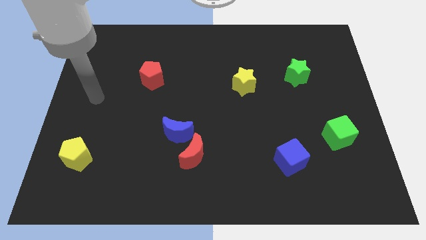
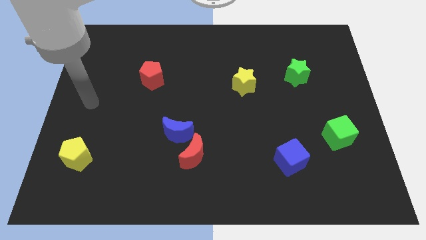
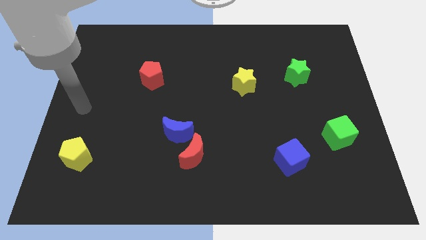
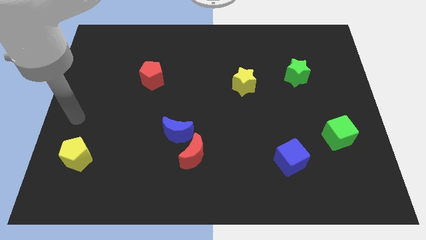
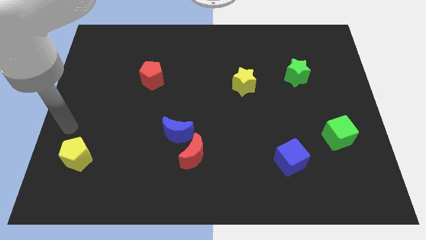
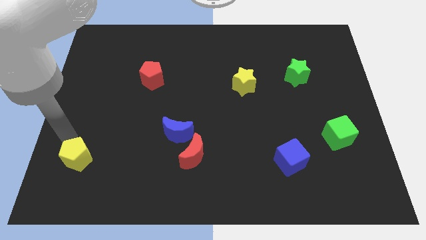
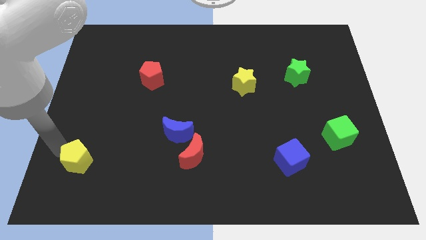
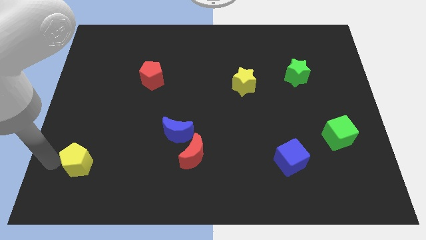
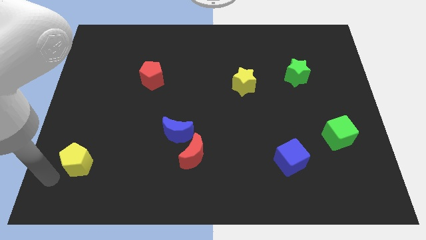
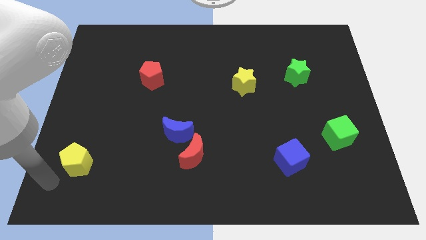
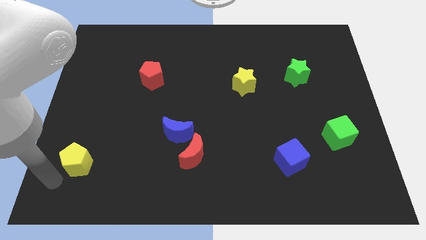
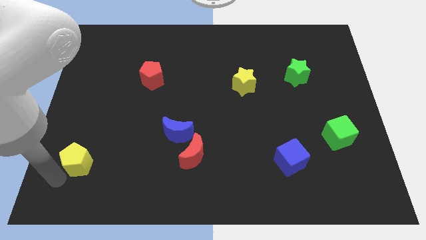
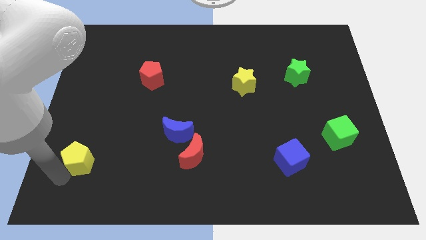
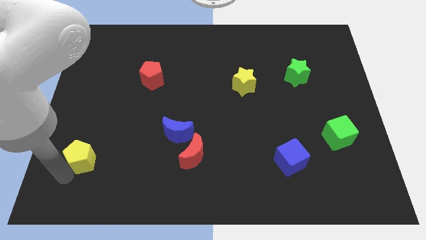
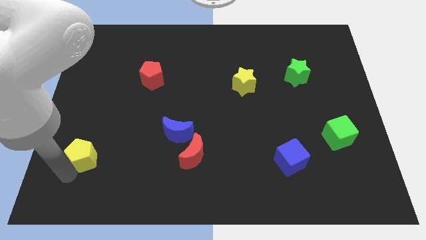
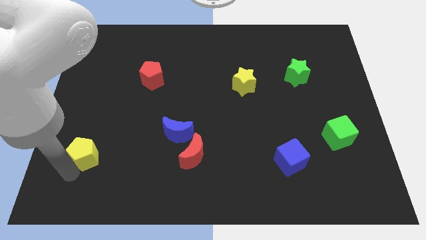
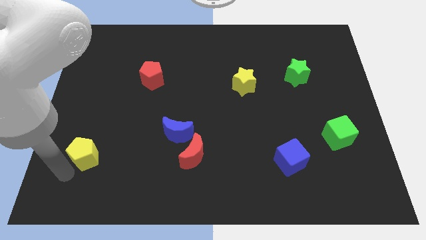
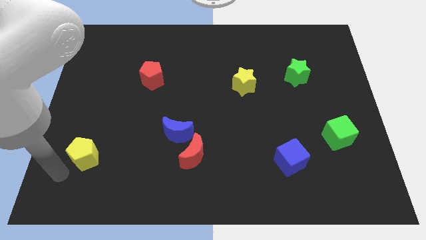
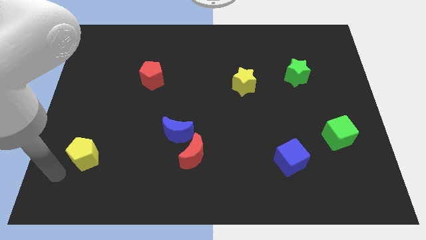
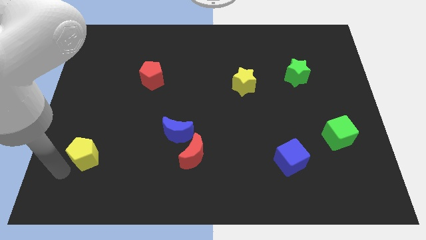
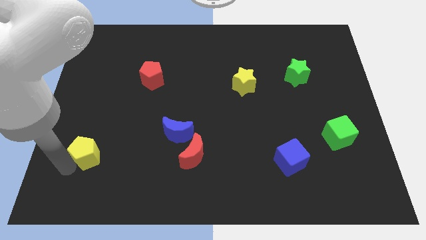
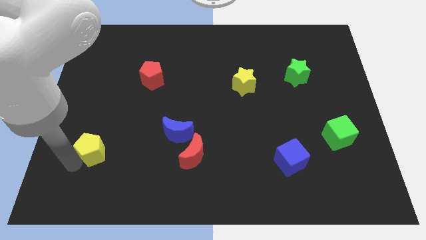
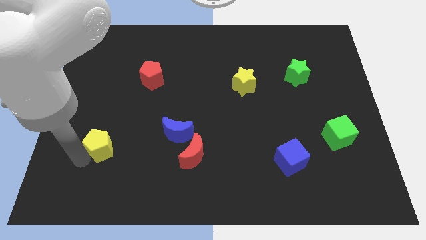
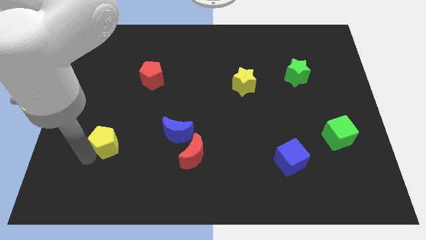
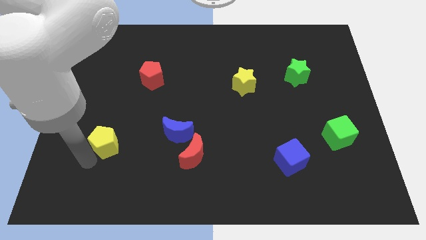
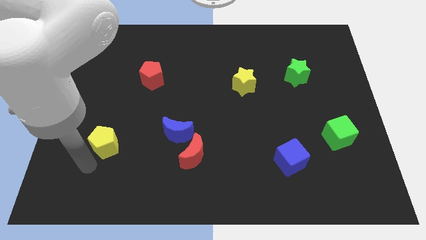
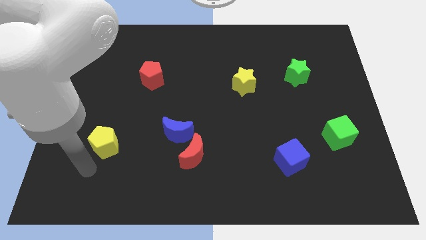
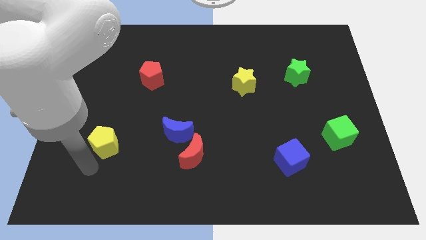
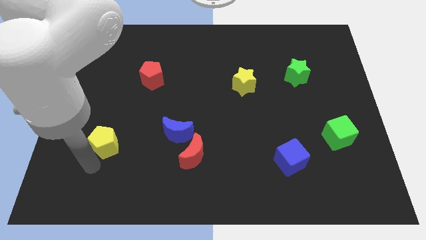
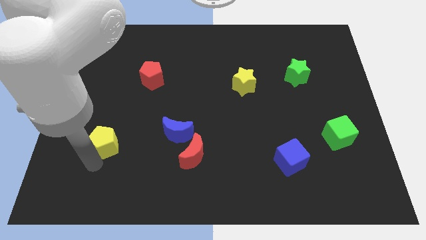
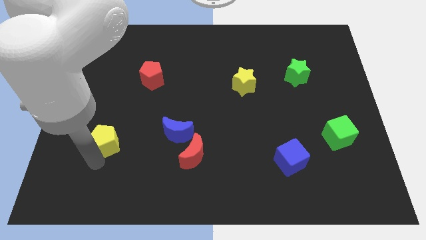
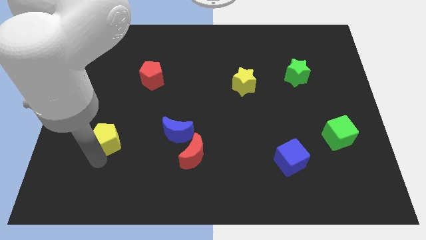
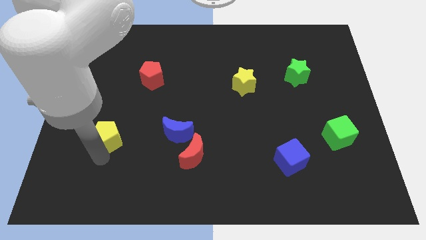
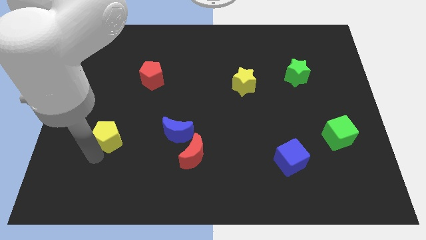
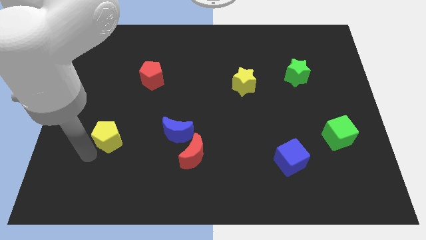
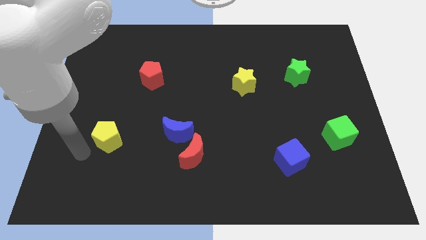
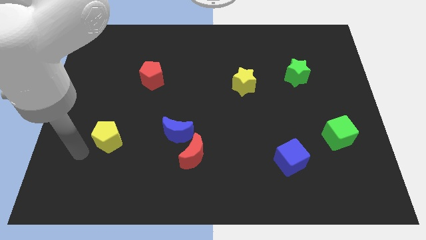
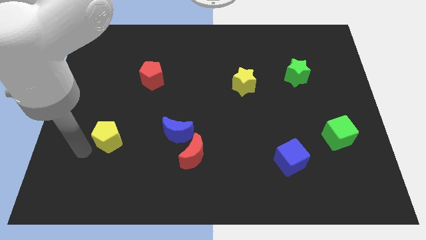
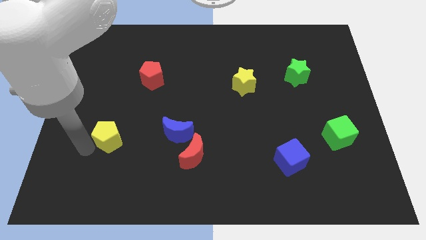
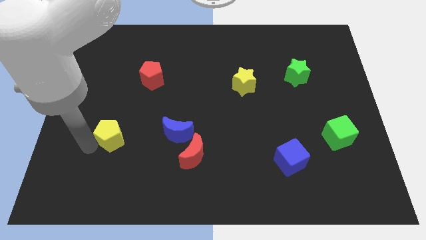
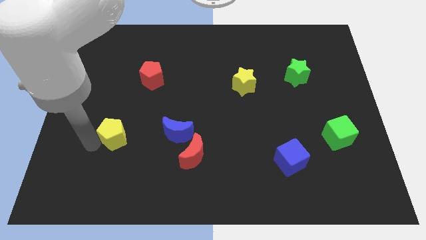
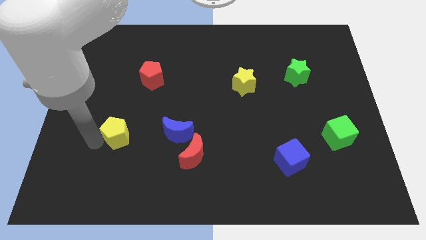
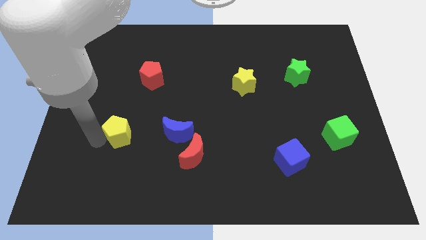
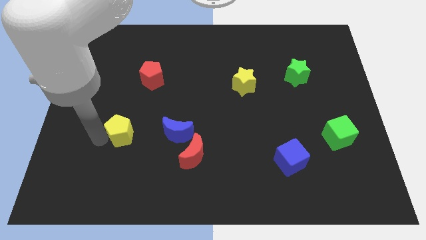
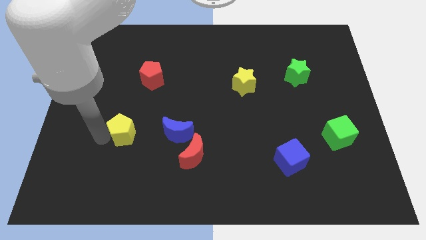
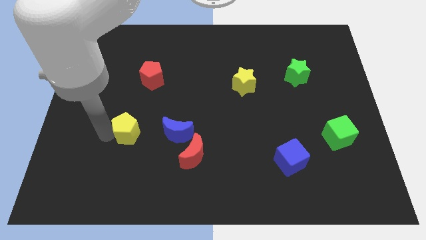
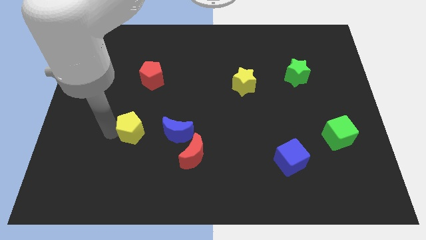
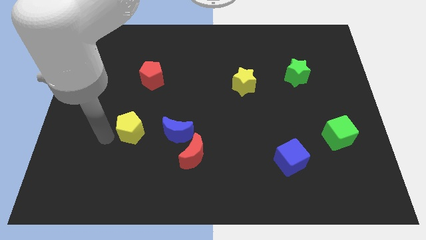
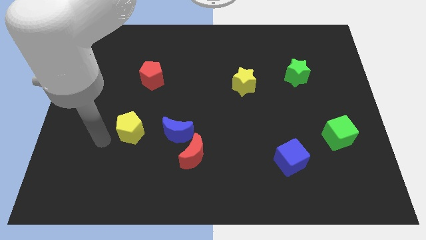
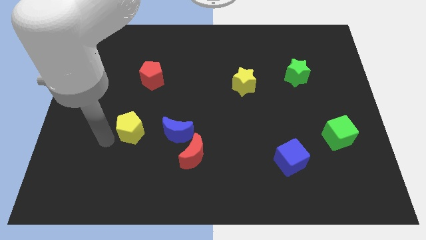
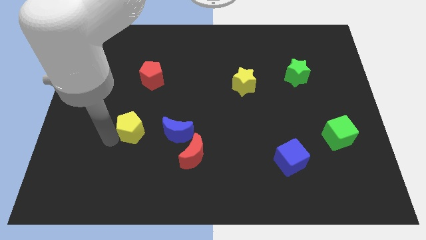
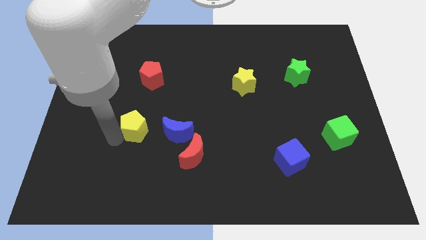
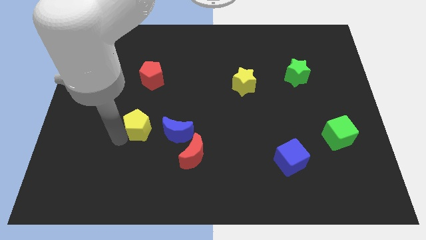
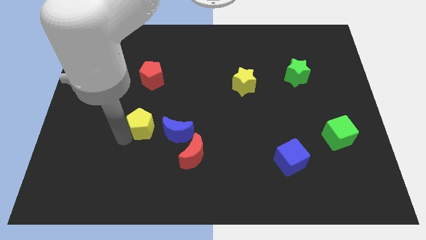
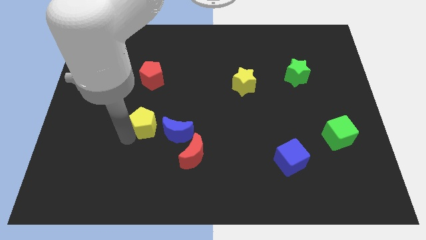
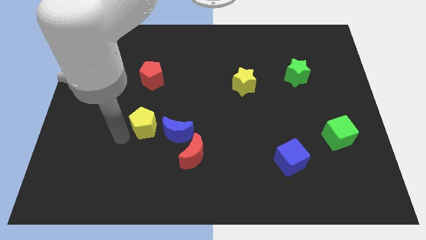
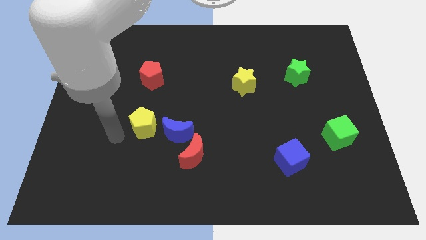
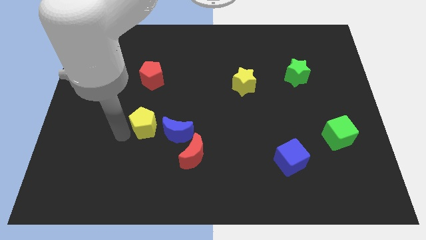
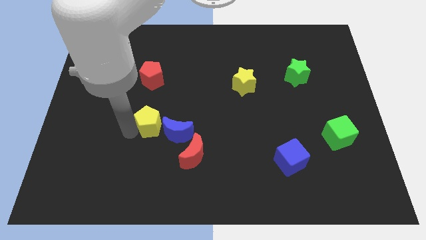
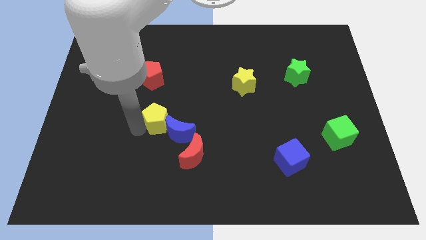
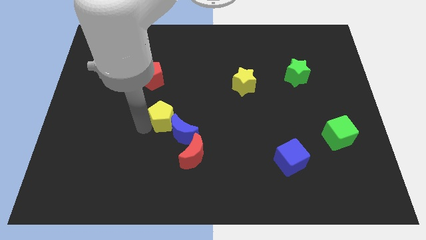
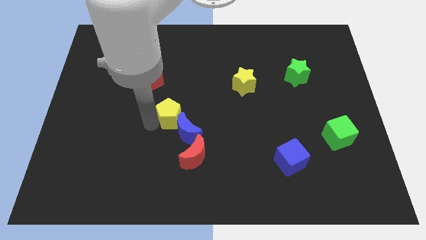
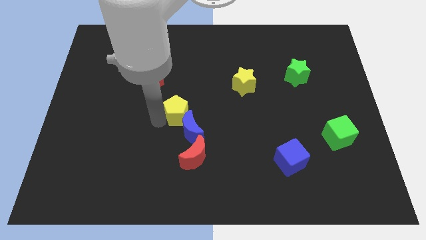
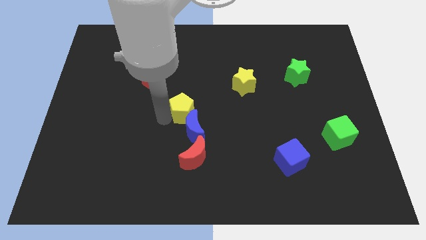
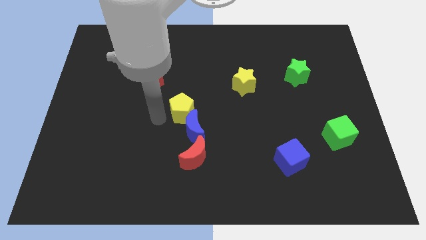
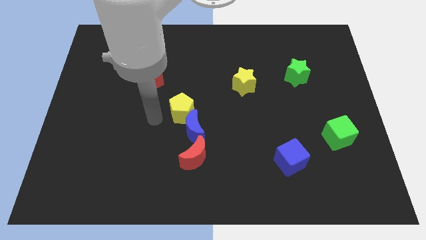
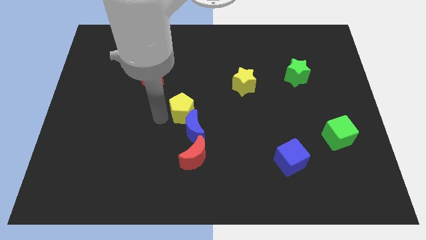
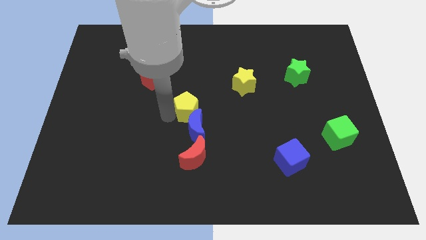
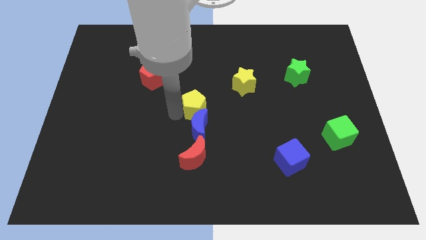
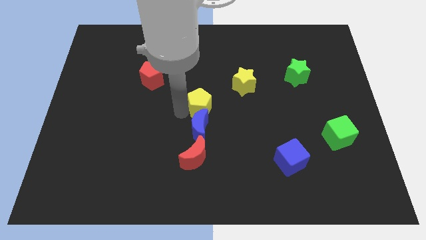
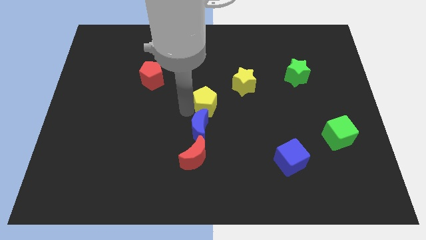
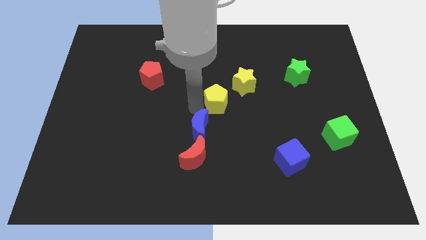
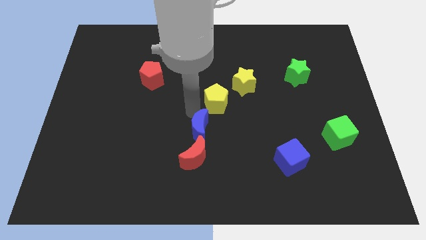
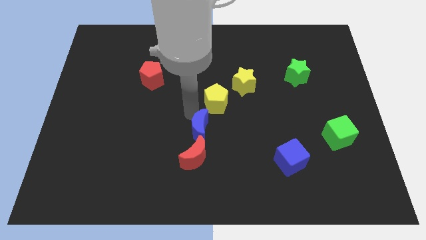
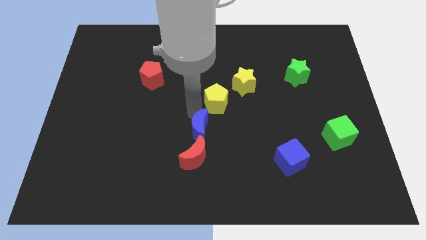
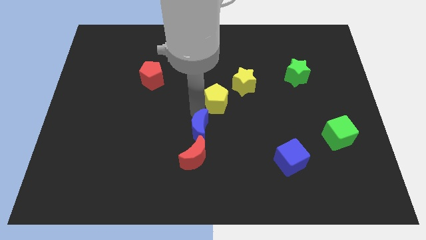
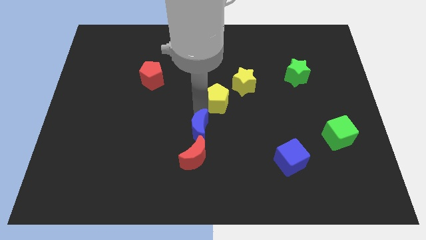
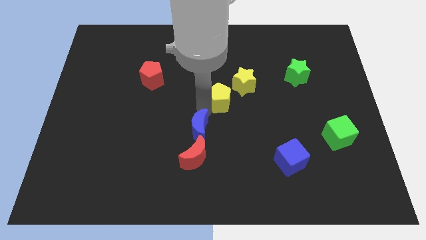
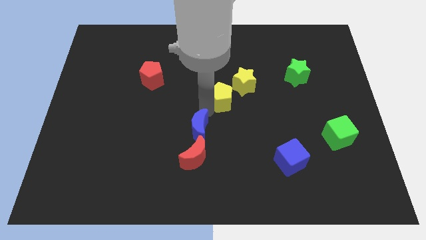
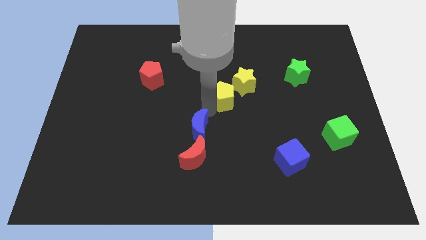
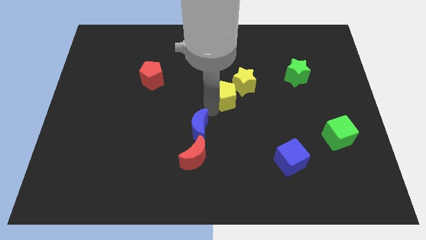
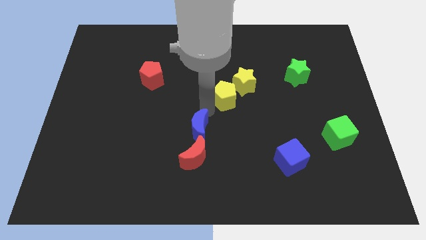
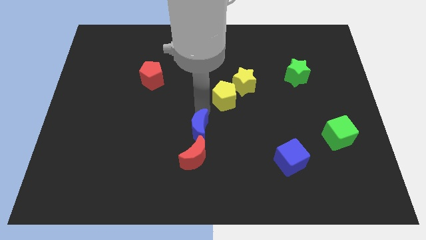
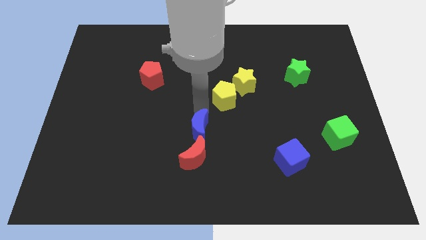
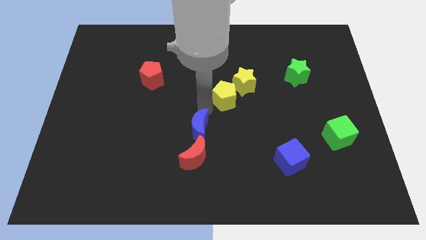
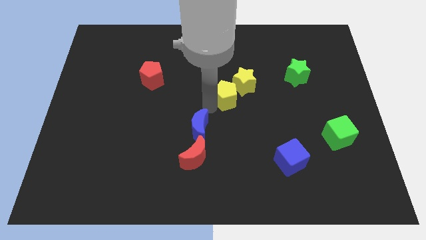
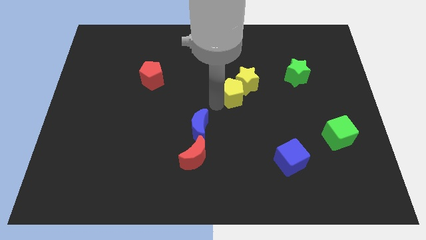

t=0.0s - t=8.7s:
push the yellow pentagon next to the yellow star
